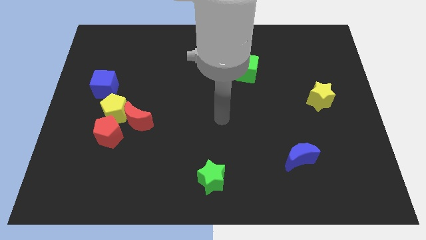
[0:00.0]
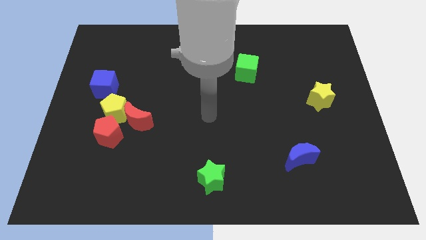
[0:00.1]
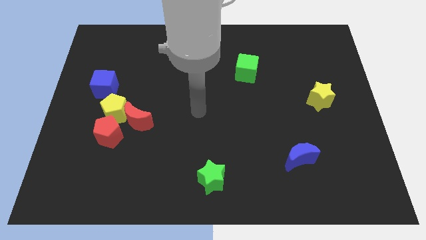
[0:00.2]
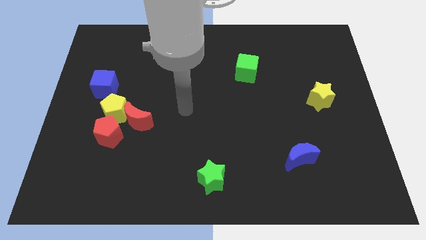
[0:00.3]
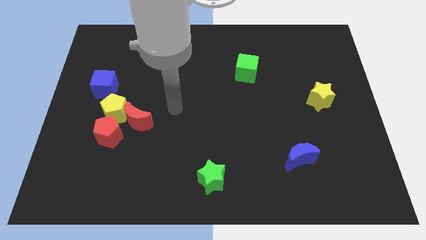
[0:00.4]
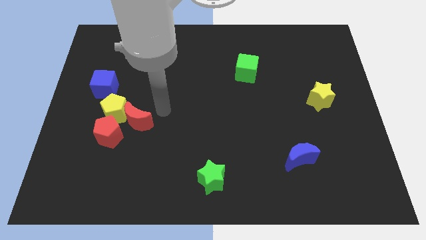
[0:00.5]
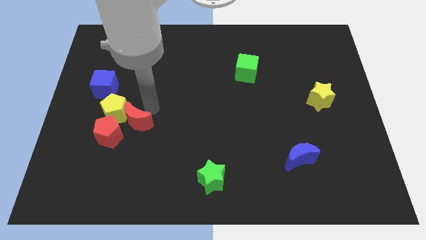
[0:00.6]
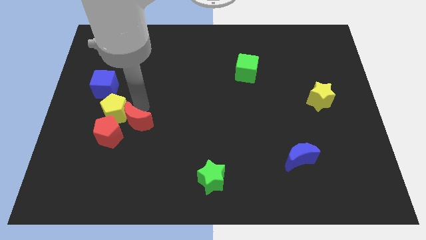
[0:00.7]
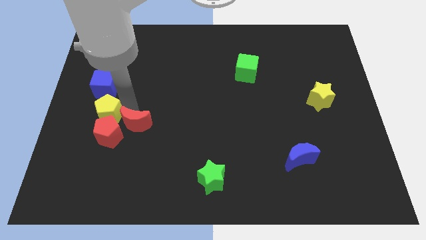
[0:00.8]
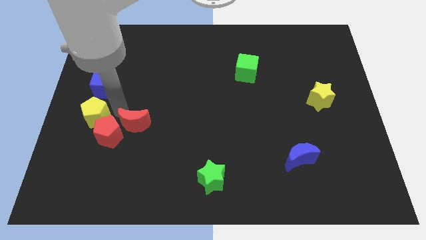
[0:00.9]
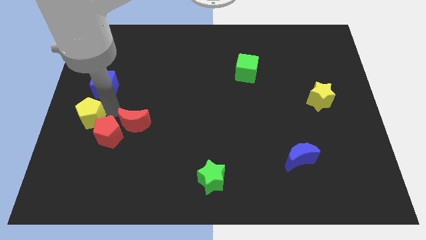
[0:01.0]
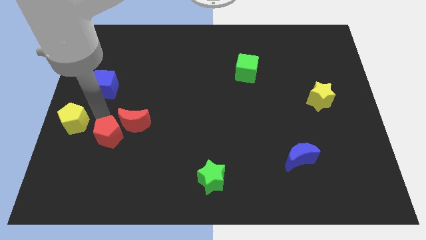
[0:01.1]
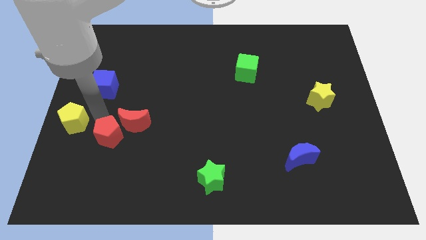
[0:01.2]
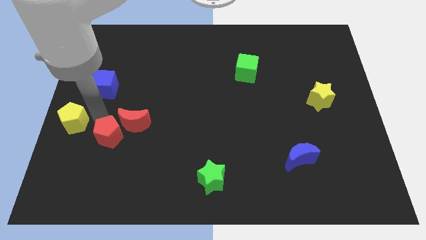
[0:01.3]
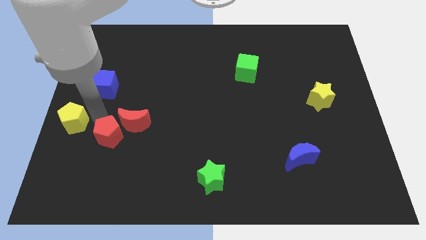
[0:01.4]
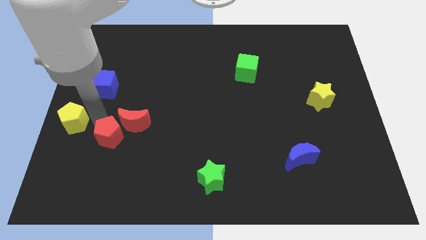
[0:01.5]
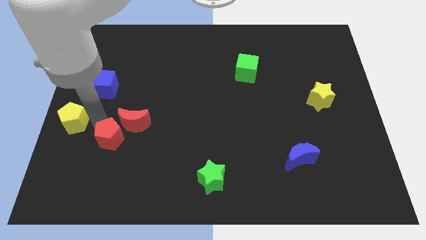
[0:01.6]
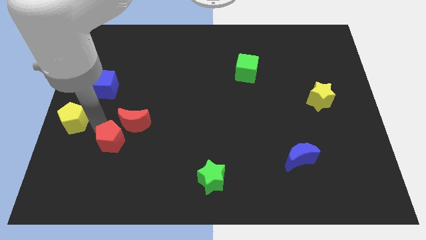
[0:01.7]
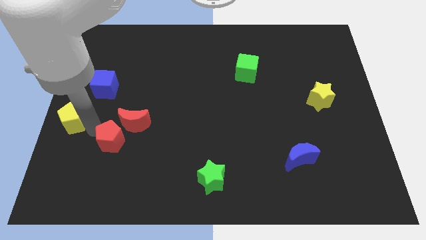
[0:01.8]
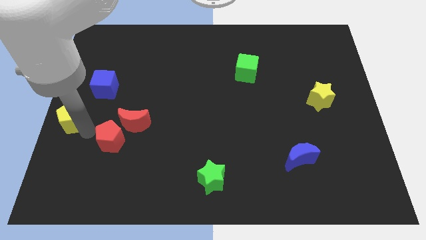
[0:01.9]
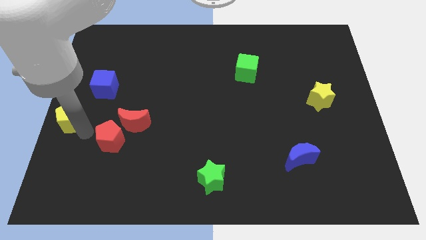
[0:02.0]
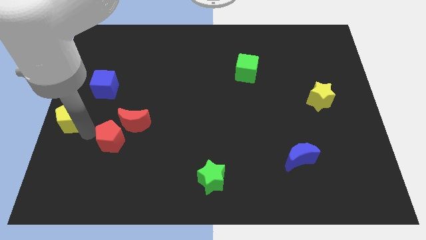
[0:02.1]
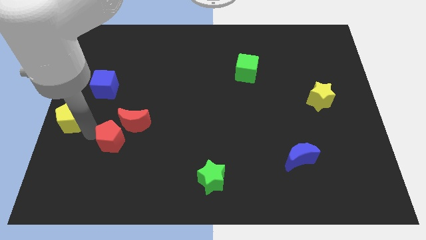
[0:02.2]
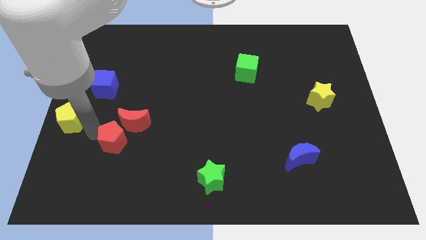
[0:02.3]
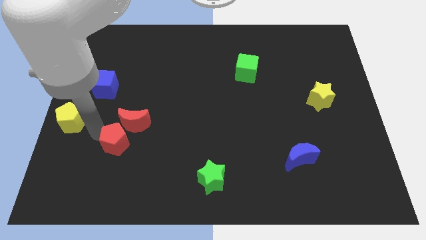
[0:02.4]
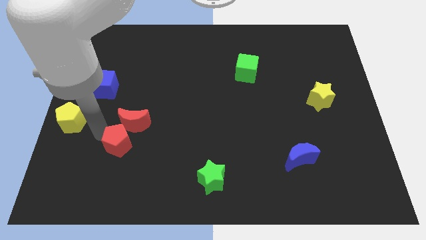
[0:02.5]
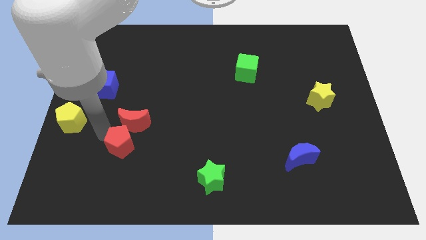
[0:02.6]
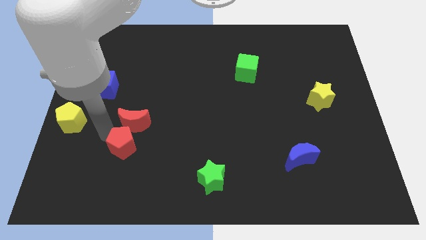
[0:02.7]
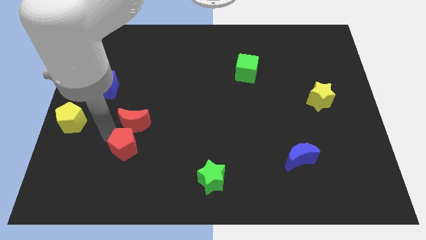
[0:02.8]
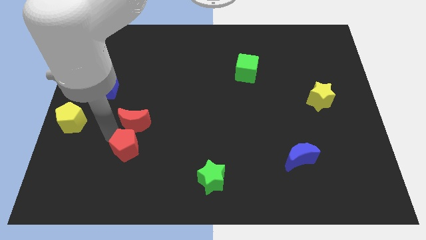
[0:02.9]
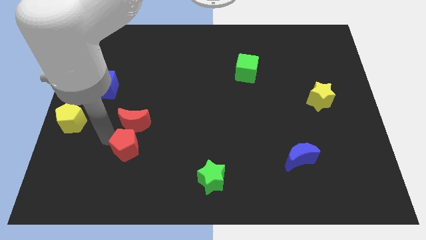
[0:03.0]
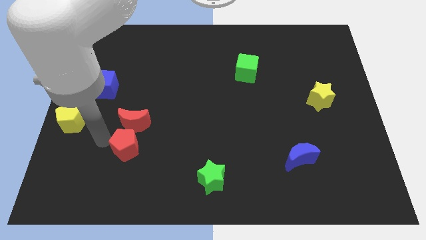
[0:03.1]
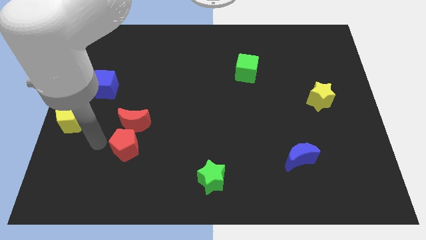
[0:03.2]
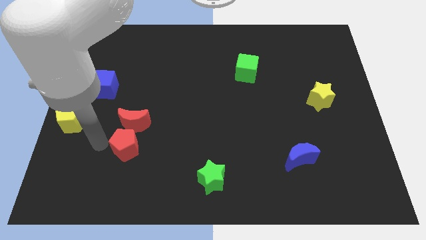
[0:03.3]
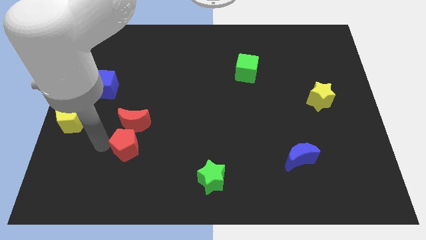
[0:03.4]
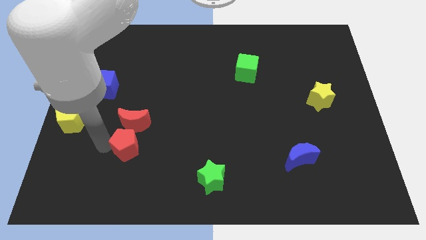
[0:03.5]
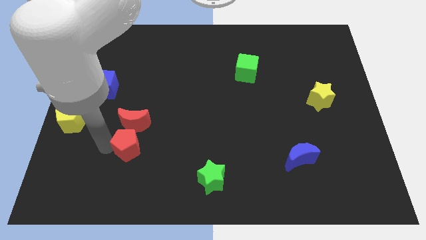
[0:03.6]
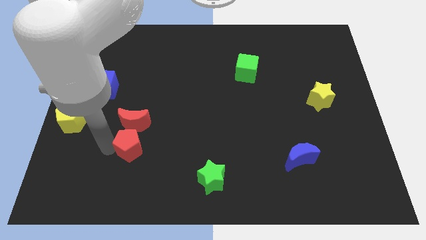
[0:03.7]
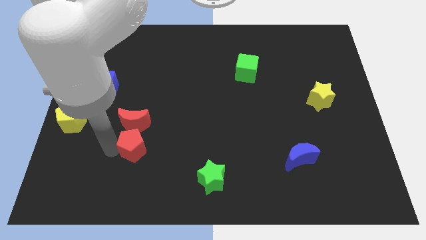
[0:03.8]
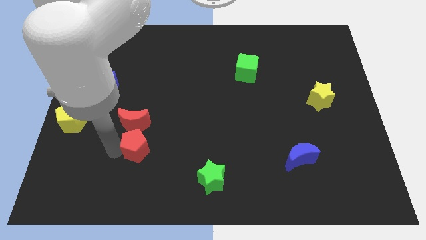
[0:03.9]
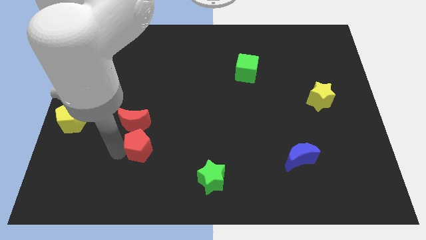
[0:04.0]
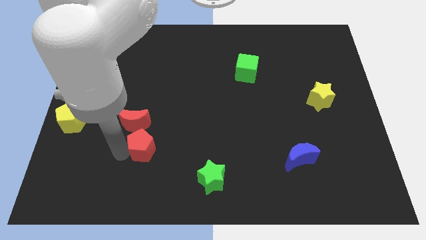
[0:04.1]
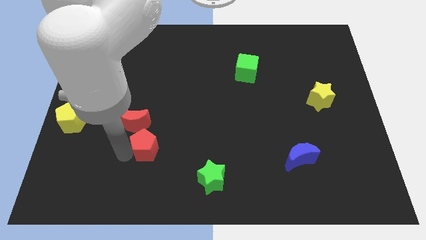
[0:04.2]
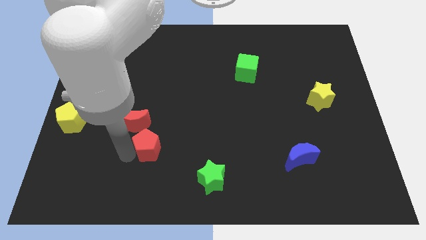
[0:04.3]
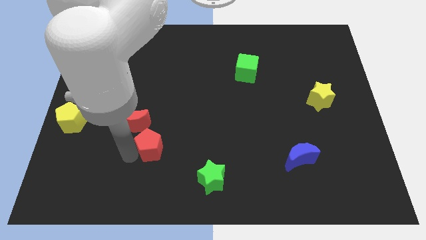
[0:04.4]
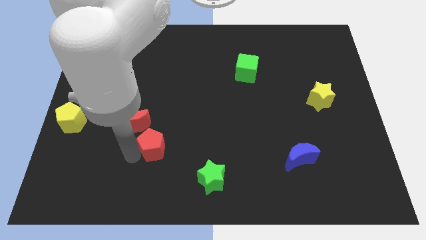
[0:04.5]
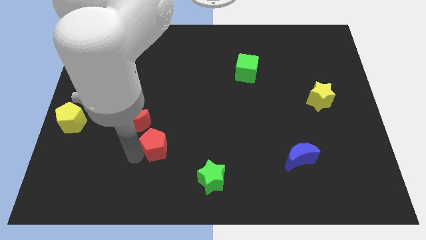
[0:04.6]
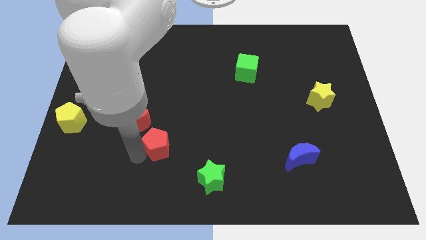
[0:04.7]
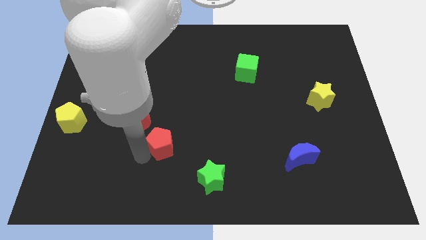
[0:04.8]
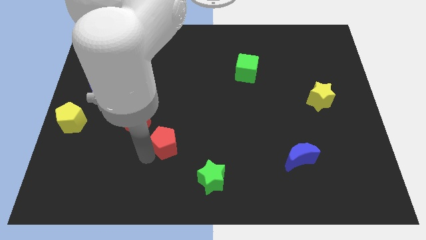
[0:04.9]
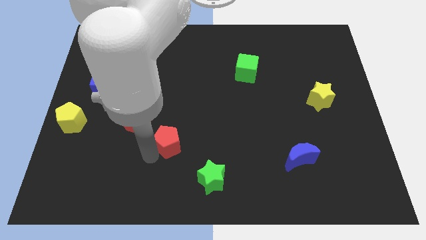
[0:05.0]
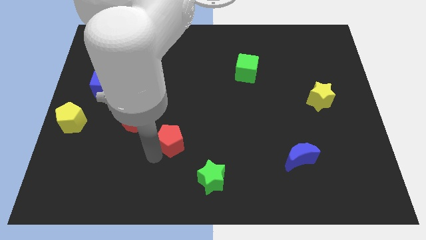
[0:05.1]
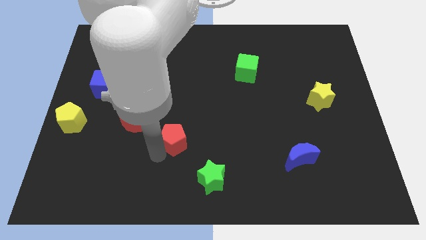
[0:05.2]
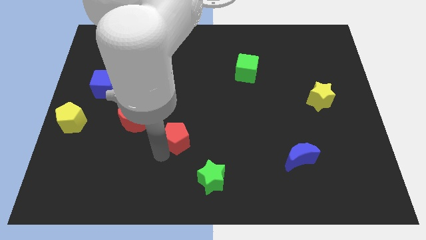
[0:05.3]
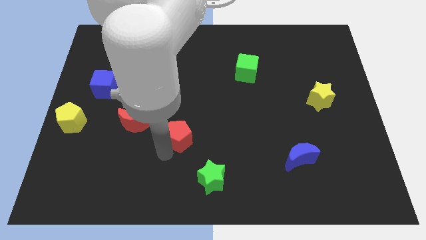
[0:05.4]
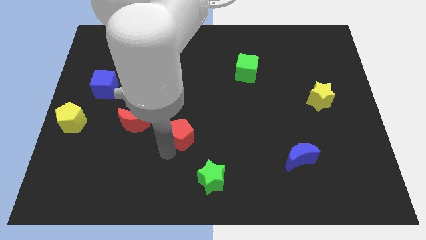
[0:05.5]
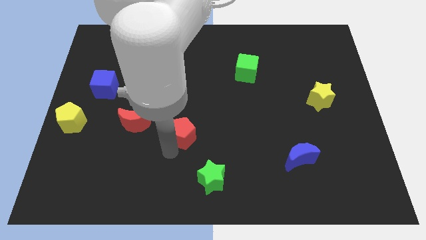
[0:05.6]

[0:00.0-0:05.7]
push the red pentagon to the middle

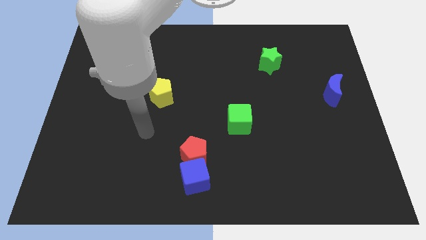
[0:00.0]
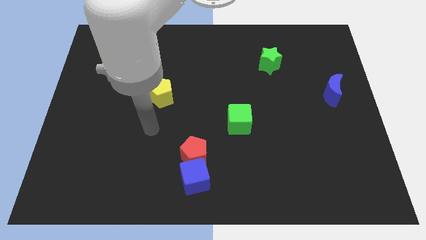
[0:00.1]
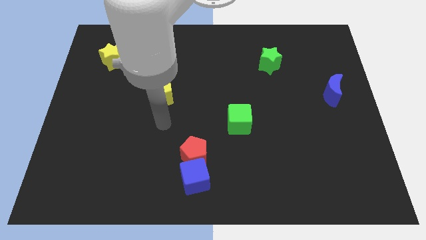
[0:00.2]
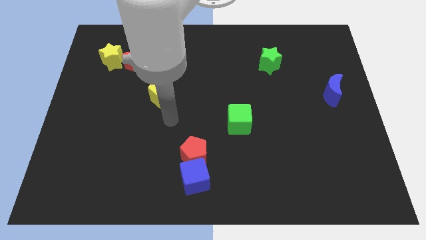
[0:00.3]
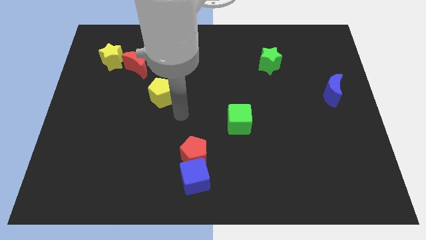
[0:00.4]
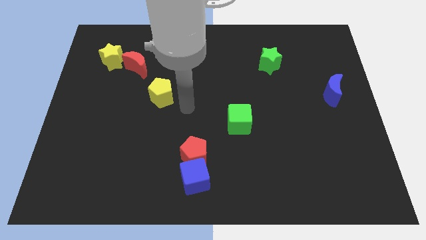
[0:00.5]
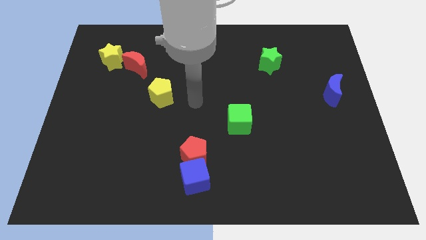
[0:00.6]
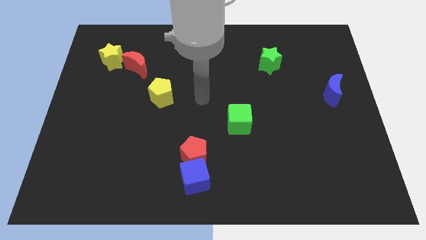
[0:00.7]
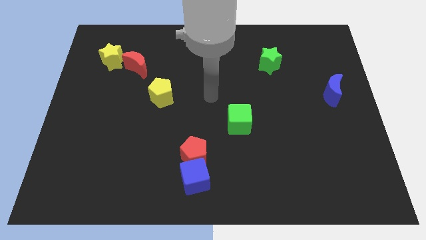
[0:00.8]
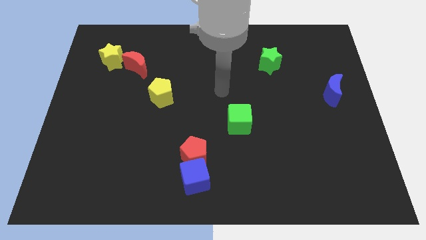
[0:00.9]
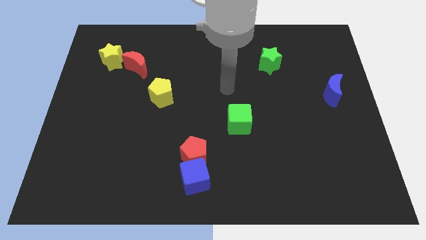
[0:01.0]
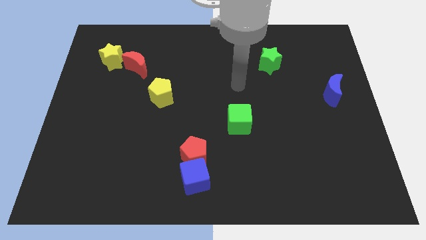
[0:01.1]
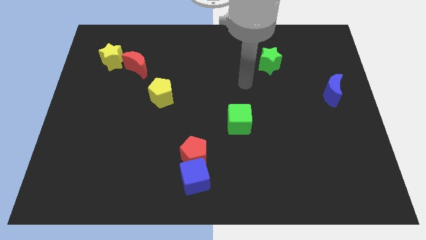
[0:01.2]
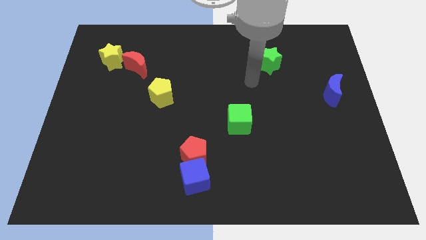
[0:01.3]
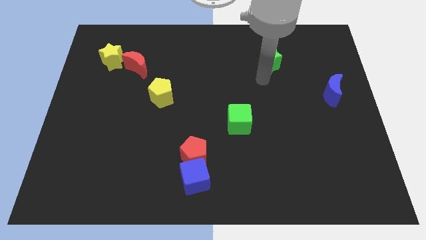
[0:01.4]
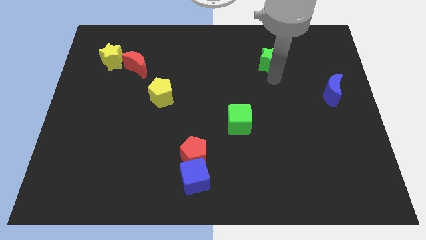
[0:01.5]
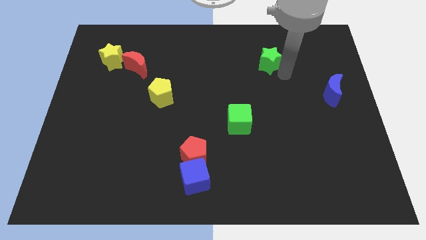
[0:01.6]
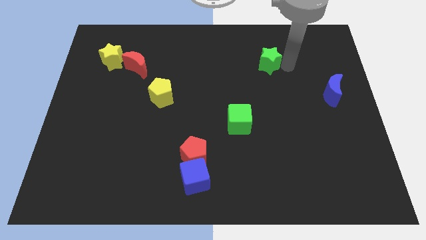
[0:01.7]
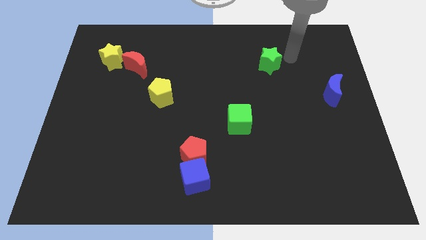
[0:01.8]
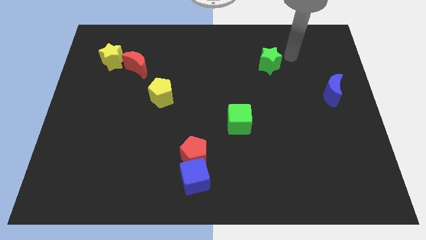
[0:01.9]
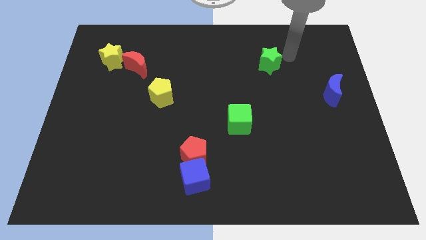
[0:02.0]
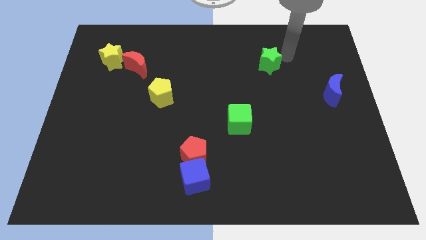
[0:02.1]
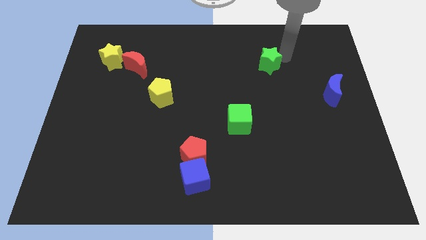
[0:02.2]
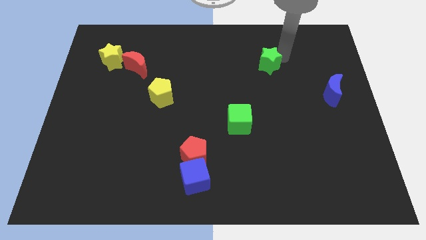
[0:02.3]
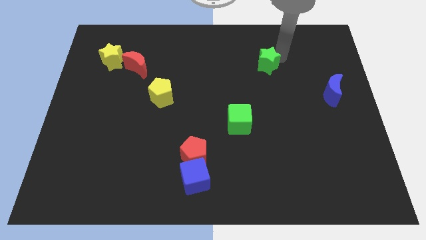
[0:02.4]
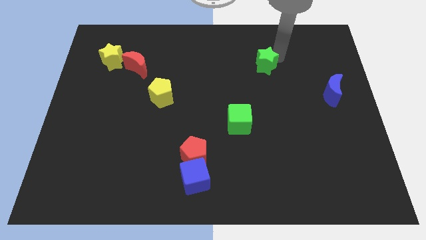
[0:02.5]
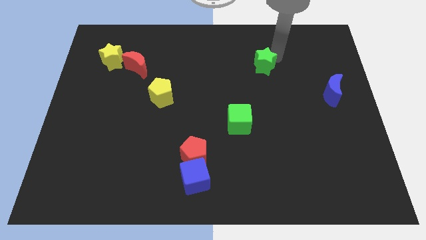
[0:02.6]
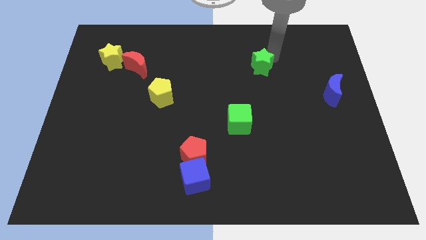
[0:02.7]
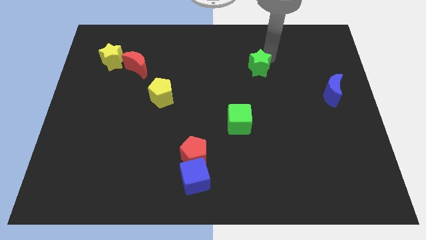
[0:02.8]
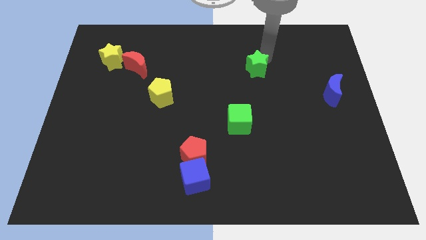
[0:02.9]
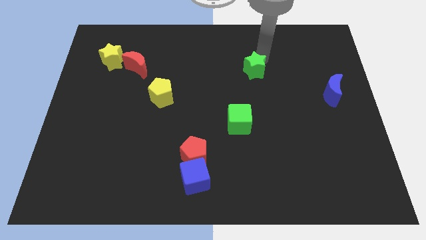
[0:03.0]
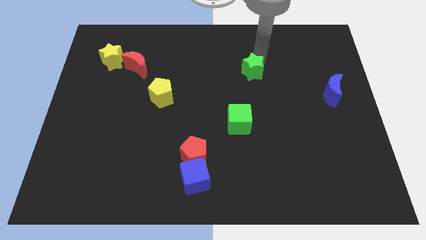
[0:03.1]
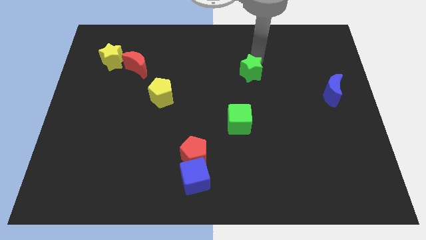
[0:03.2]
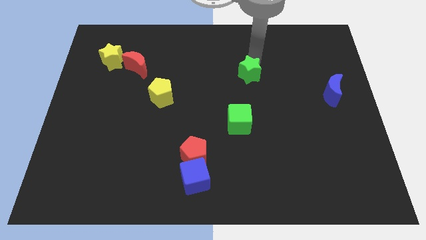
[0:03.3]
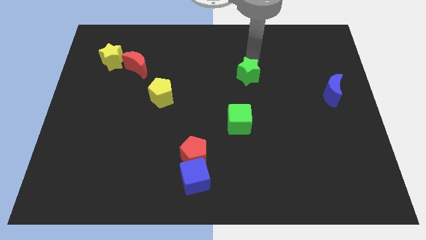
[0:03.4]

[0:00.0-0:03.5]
slide the green star to the middle
